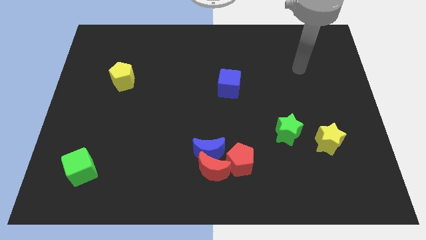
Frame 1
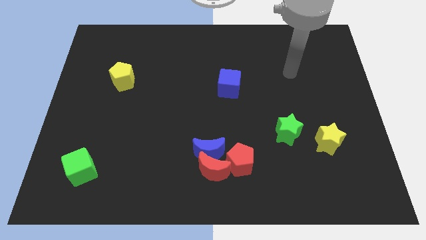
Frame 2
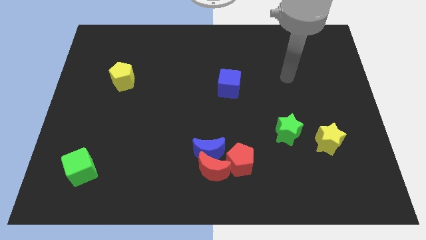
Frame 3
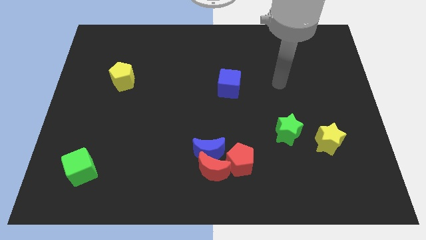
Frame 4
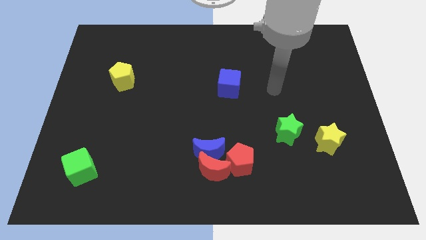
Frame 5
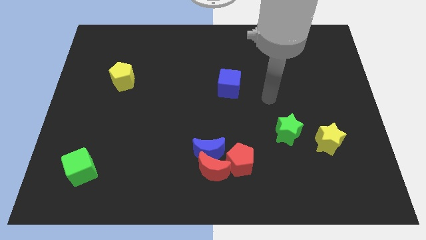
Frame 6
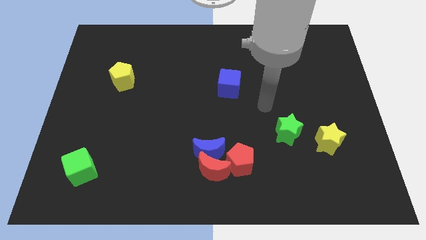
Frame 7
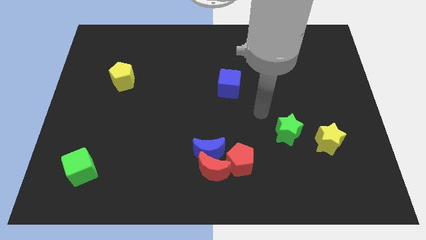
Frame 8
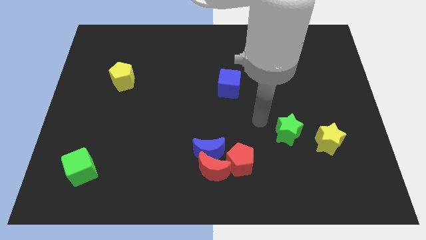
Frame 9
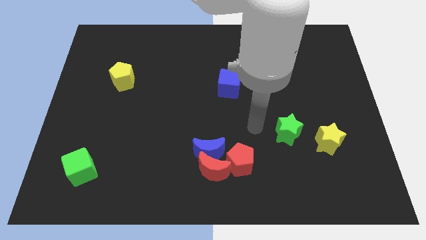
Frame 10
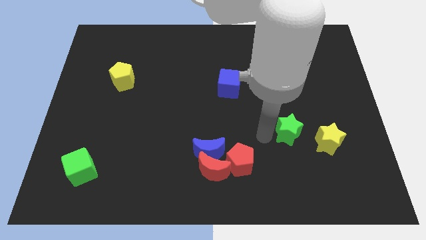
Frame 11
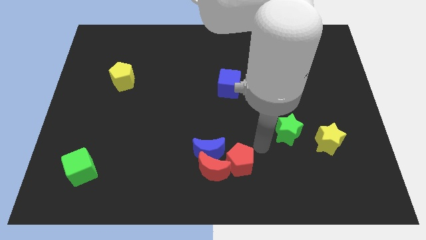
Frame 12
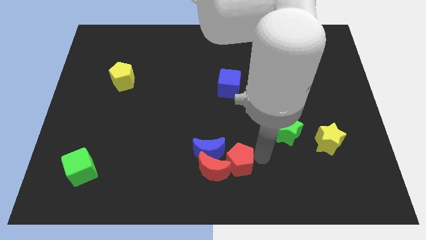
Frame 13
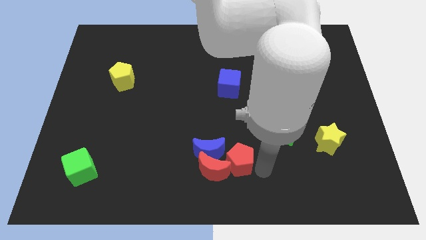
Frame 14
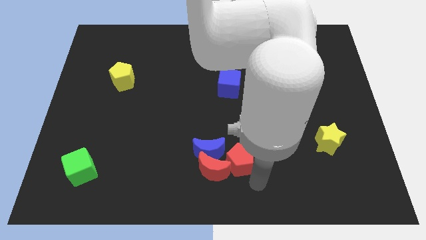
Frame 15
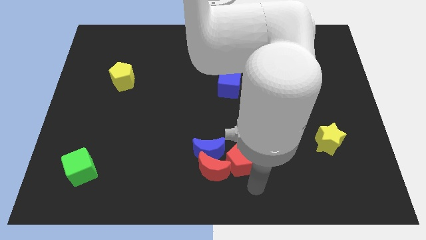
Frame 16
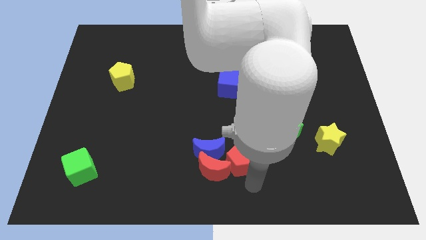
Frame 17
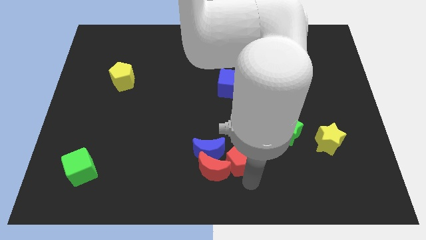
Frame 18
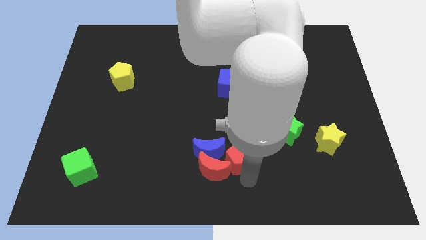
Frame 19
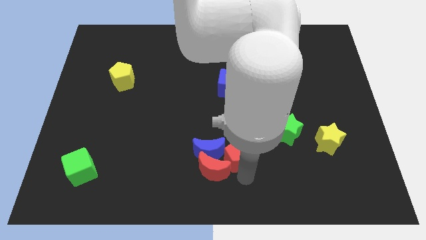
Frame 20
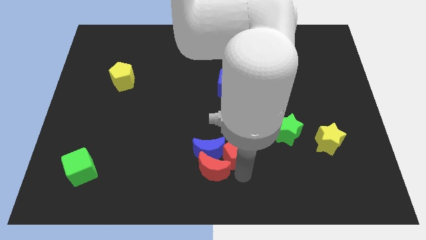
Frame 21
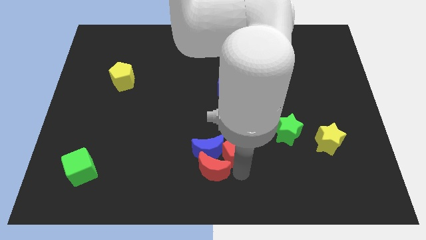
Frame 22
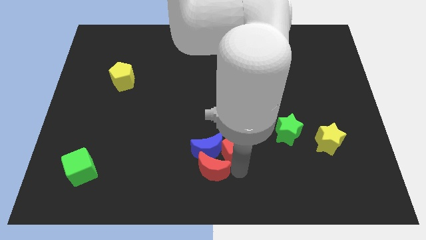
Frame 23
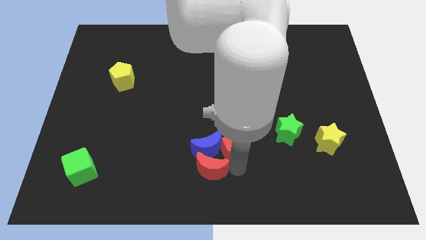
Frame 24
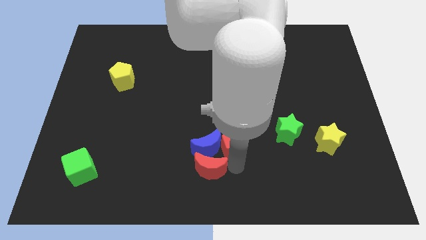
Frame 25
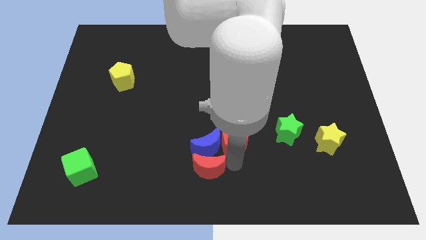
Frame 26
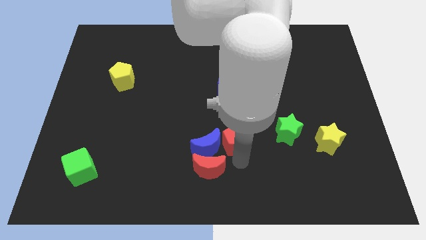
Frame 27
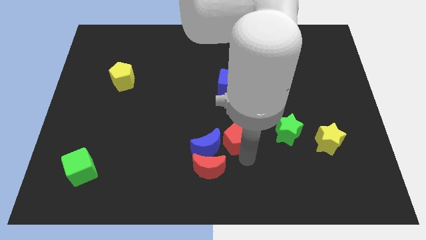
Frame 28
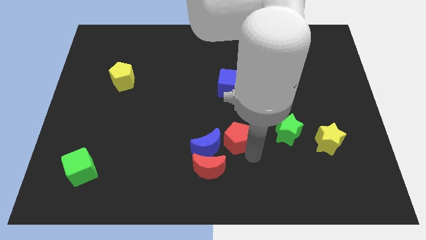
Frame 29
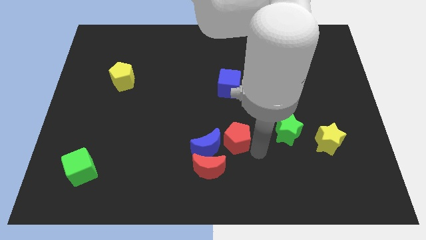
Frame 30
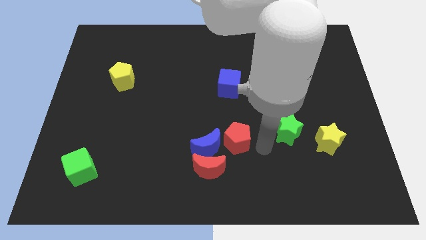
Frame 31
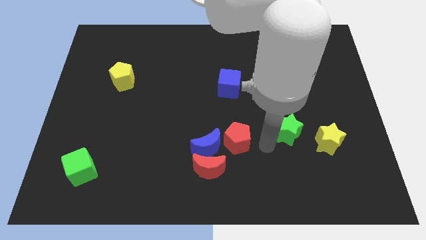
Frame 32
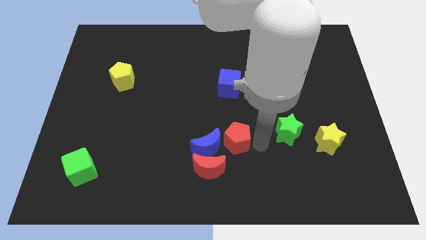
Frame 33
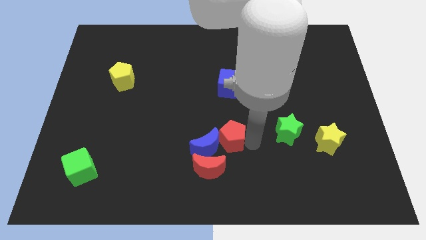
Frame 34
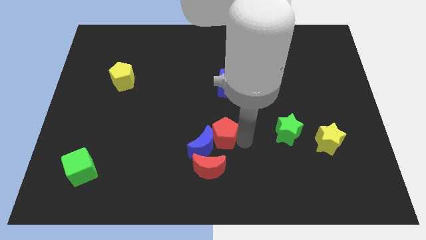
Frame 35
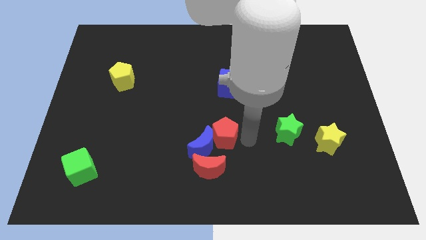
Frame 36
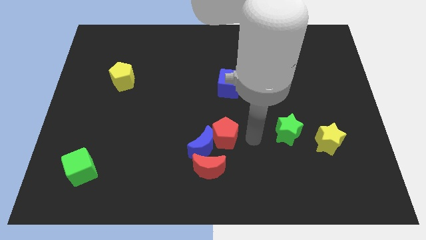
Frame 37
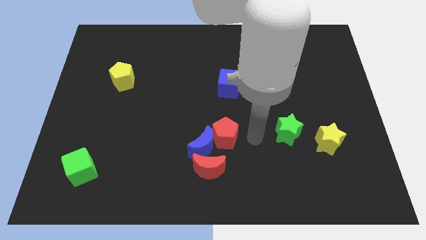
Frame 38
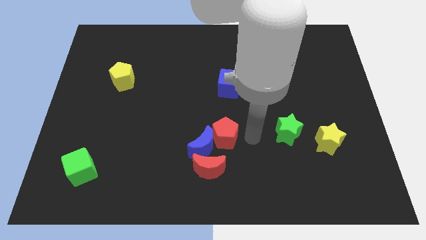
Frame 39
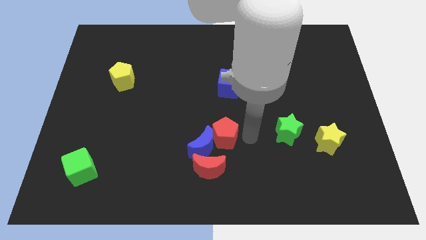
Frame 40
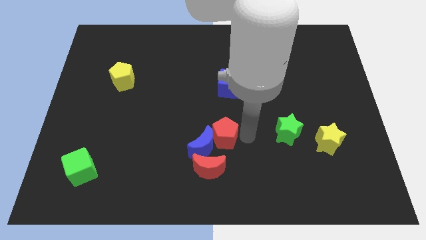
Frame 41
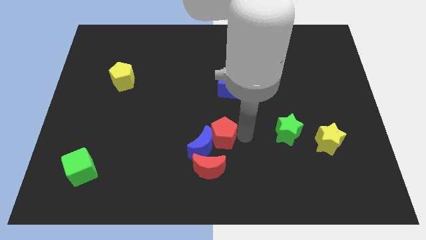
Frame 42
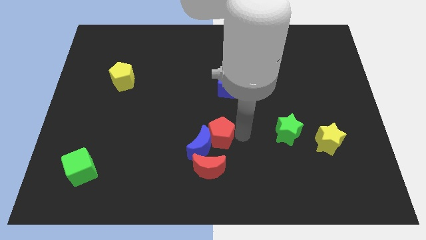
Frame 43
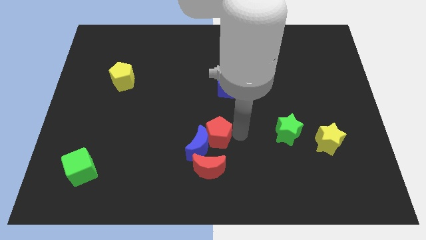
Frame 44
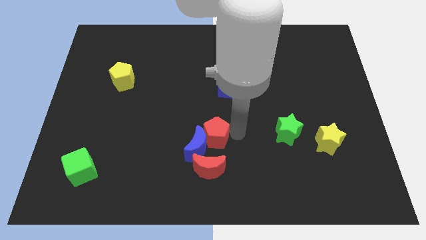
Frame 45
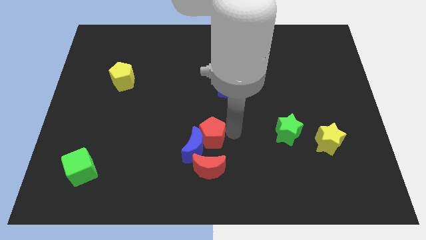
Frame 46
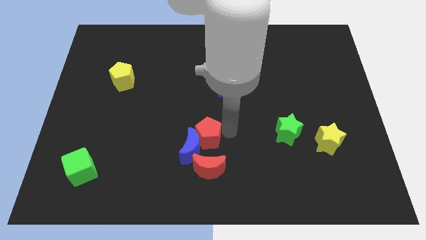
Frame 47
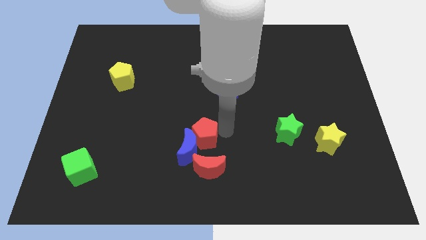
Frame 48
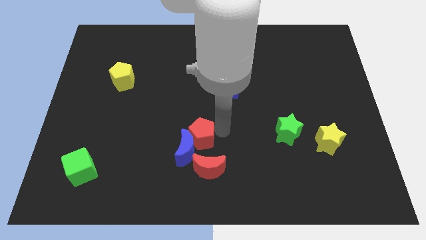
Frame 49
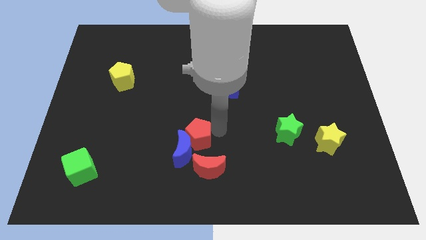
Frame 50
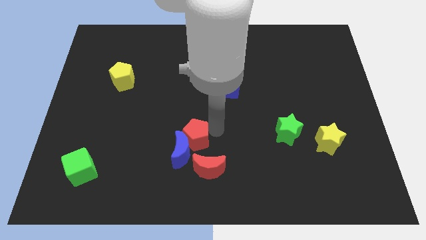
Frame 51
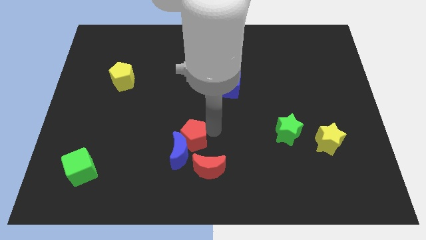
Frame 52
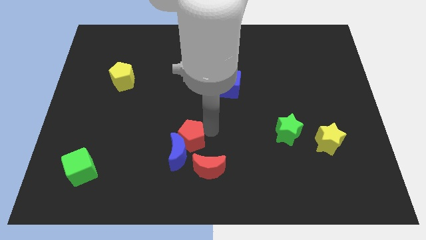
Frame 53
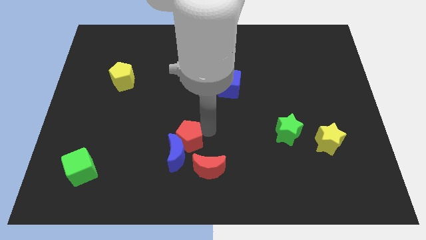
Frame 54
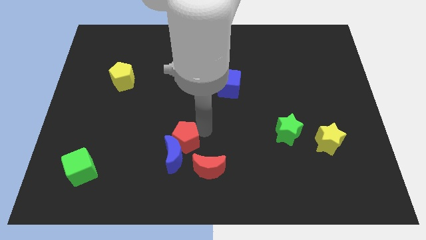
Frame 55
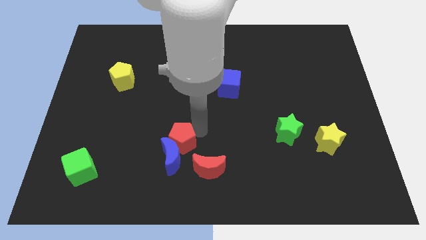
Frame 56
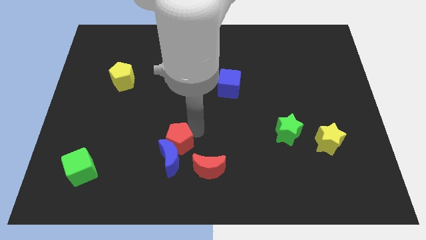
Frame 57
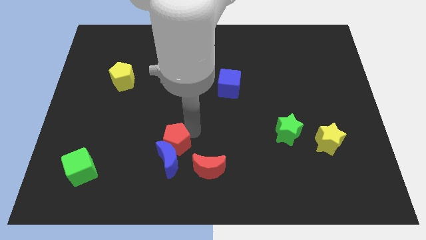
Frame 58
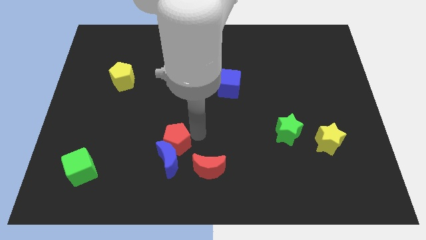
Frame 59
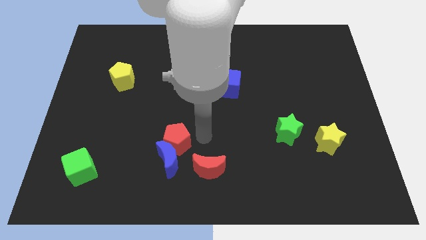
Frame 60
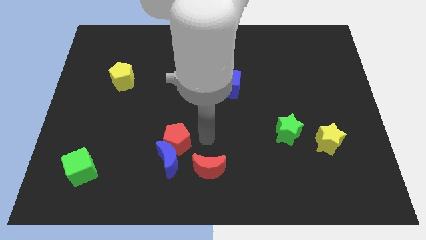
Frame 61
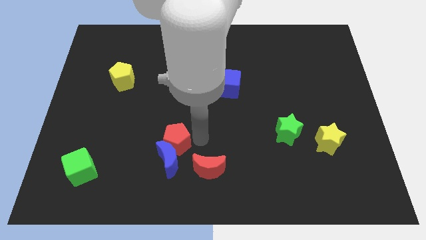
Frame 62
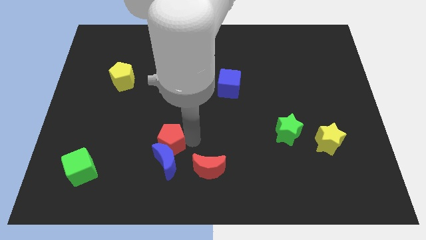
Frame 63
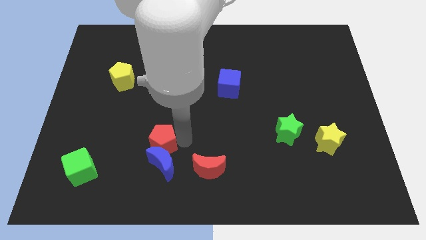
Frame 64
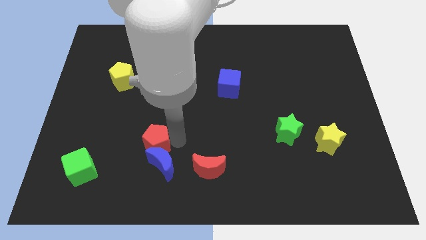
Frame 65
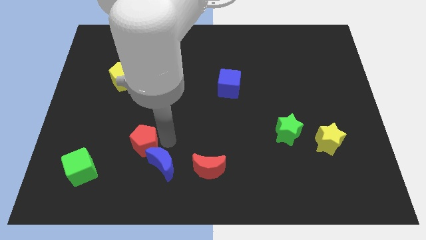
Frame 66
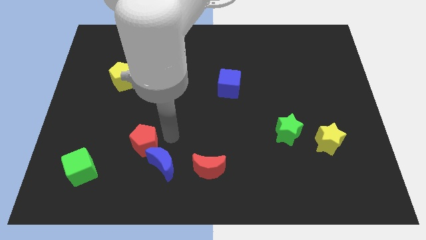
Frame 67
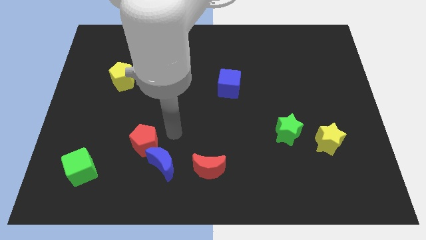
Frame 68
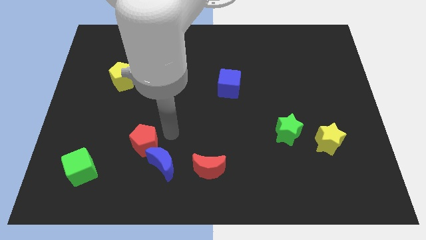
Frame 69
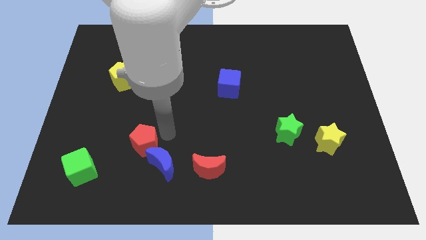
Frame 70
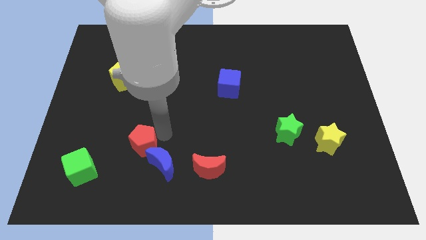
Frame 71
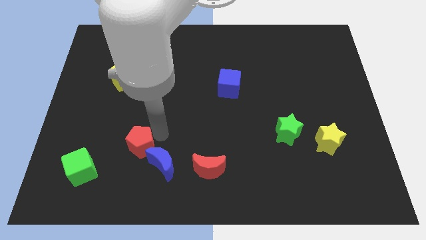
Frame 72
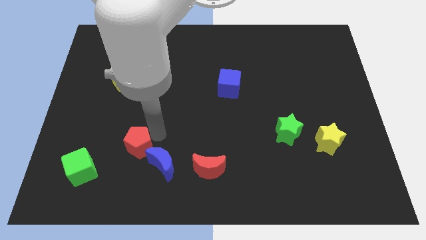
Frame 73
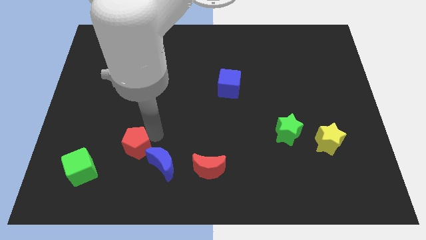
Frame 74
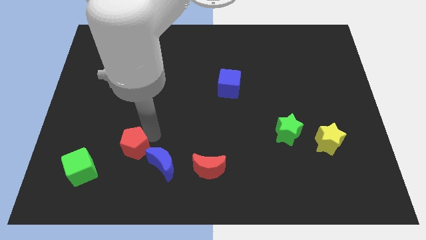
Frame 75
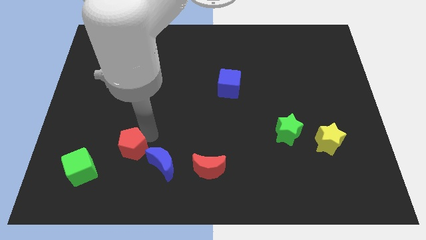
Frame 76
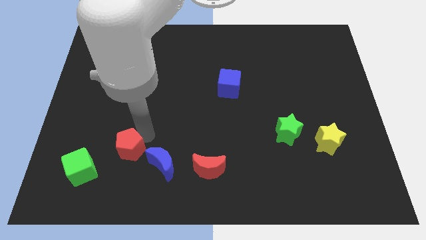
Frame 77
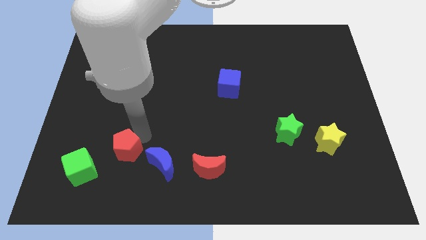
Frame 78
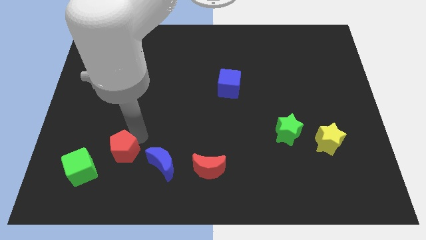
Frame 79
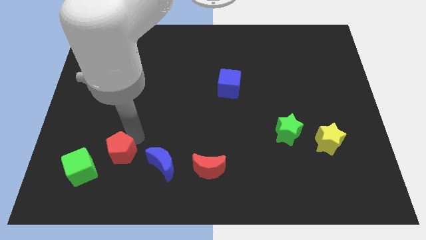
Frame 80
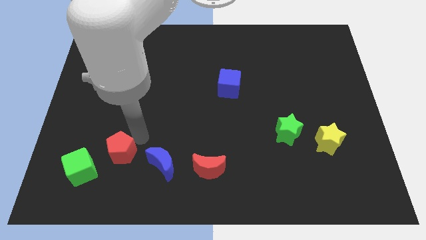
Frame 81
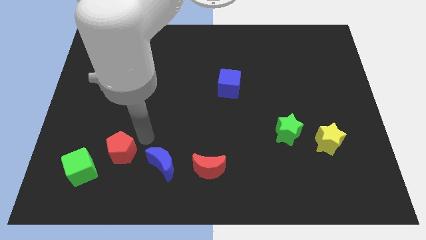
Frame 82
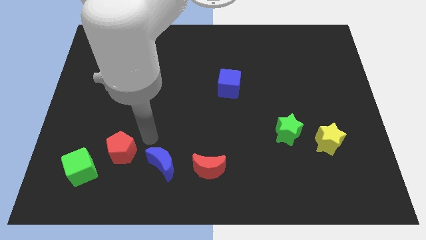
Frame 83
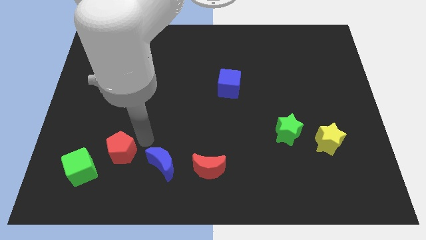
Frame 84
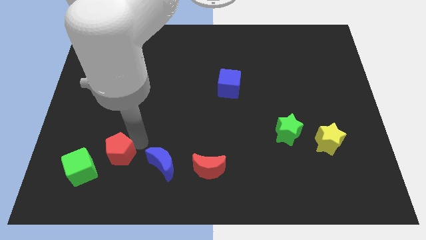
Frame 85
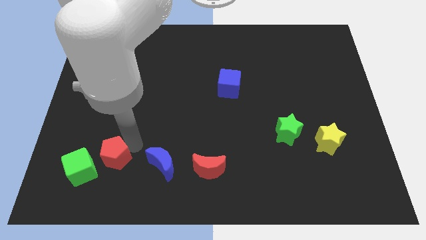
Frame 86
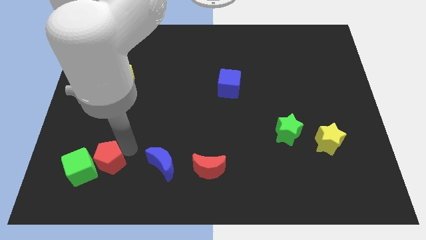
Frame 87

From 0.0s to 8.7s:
push the red pentagon to the green cube
